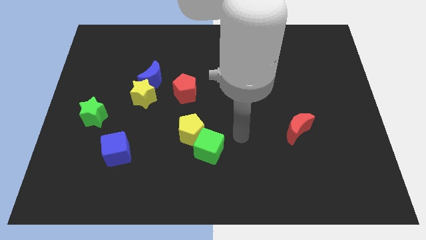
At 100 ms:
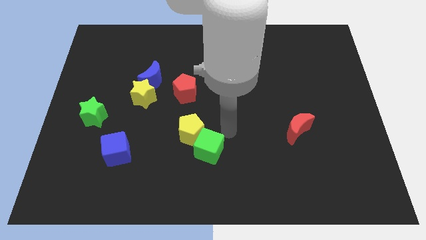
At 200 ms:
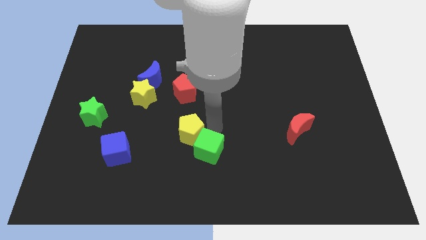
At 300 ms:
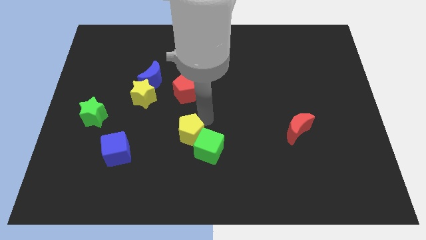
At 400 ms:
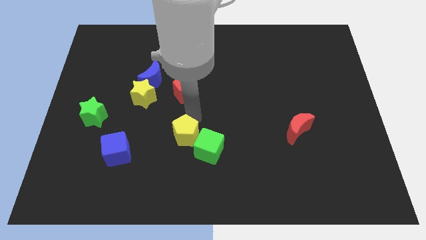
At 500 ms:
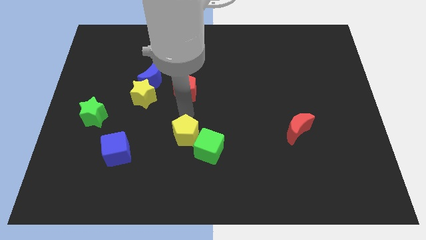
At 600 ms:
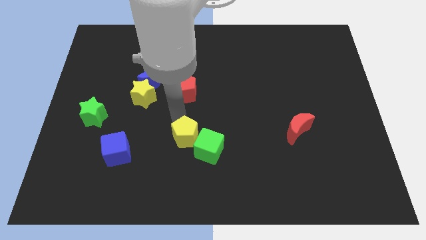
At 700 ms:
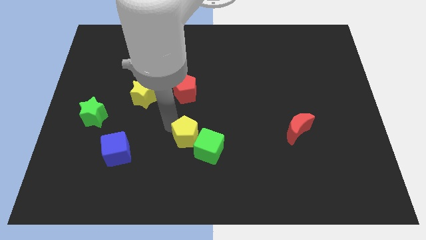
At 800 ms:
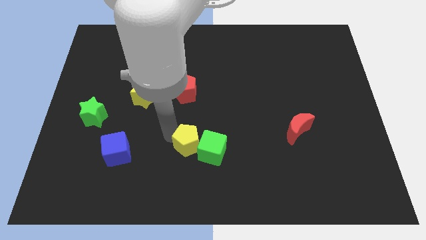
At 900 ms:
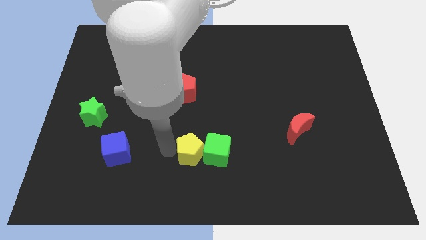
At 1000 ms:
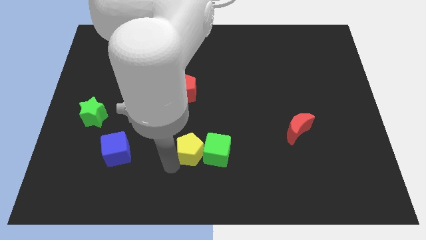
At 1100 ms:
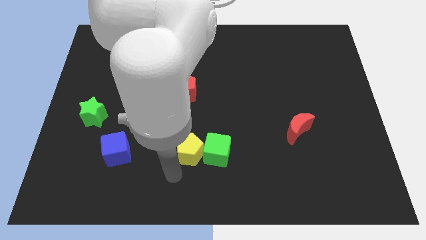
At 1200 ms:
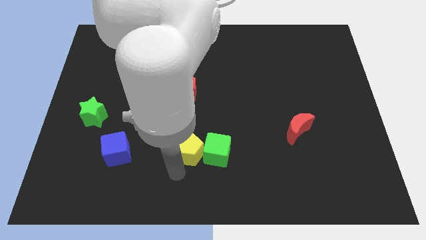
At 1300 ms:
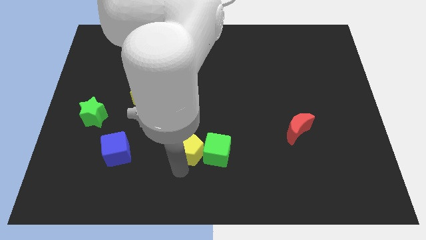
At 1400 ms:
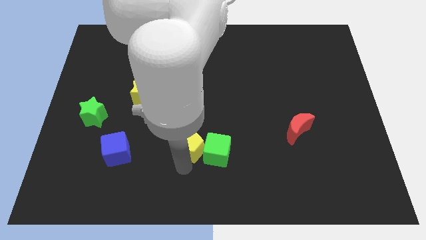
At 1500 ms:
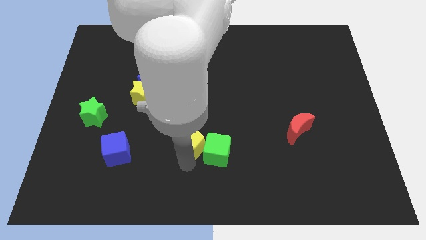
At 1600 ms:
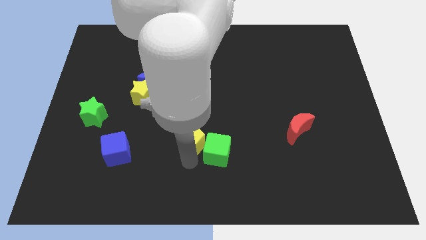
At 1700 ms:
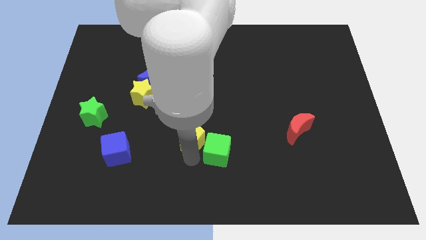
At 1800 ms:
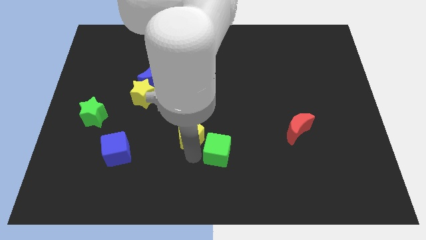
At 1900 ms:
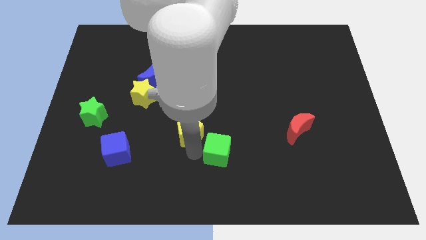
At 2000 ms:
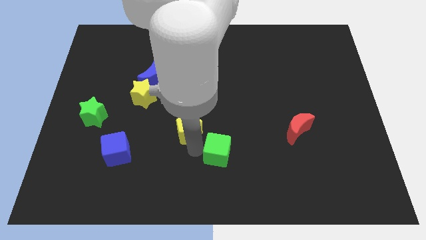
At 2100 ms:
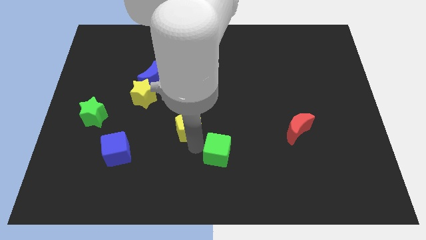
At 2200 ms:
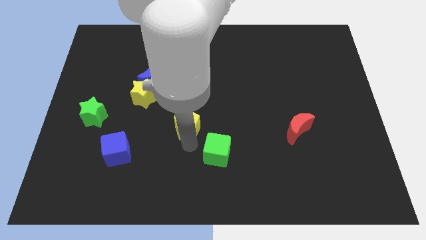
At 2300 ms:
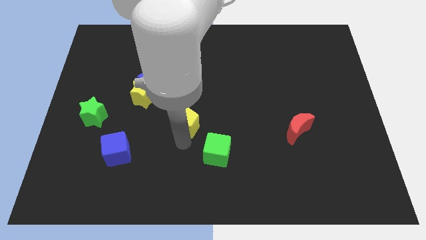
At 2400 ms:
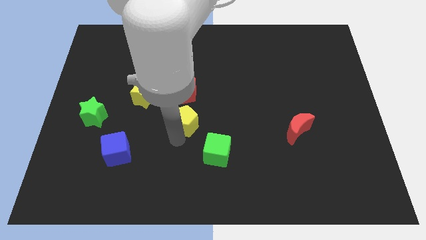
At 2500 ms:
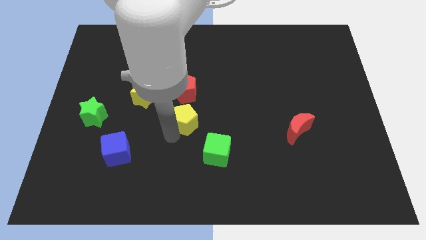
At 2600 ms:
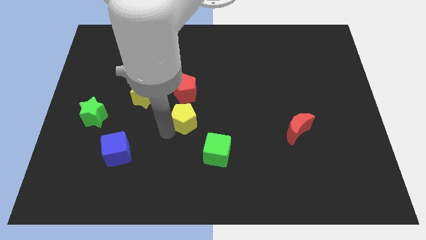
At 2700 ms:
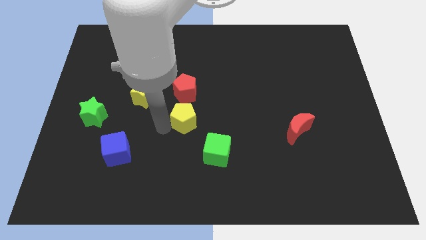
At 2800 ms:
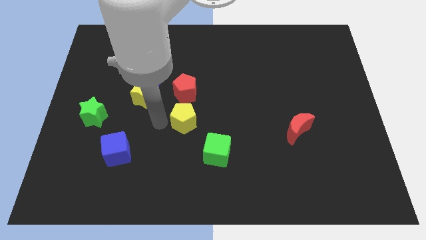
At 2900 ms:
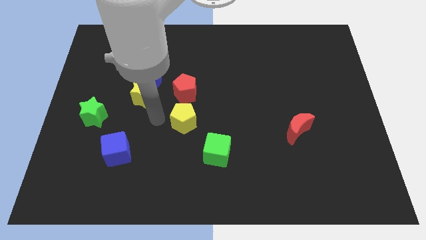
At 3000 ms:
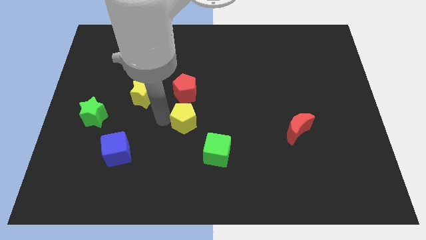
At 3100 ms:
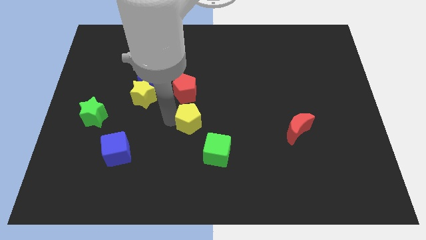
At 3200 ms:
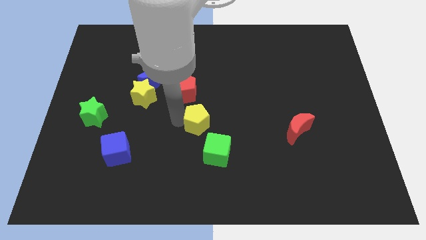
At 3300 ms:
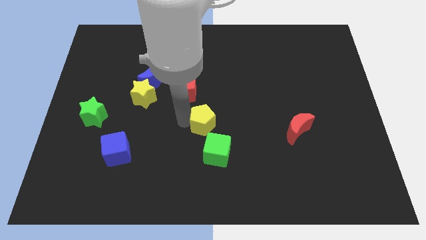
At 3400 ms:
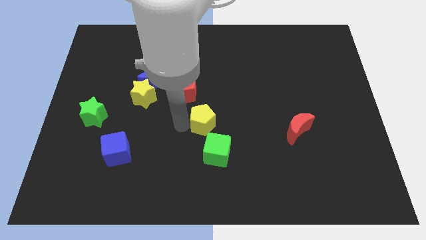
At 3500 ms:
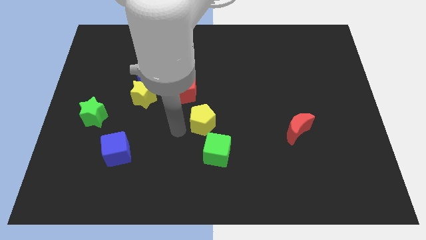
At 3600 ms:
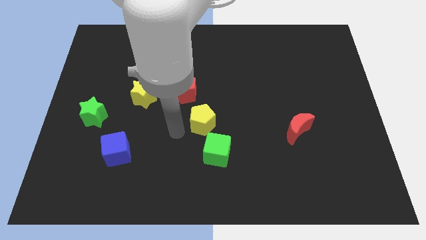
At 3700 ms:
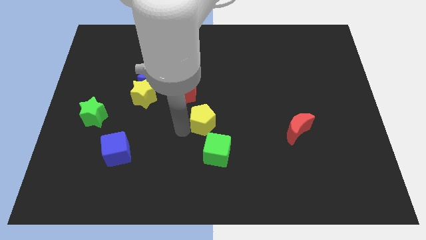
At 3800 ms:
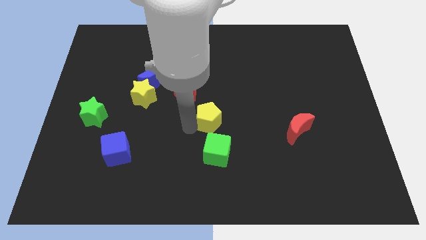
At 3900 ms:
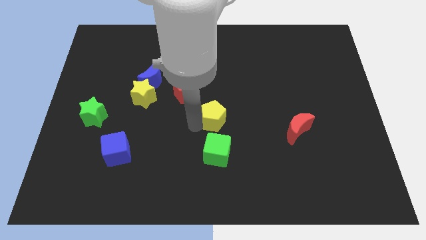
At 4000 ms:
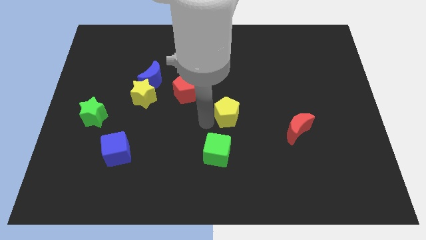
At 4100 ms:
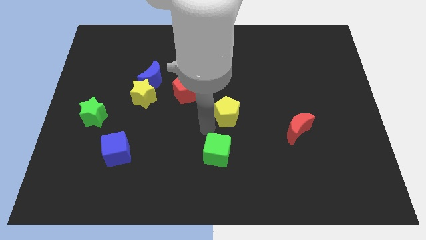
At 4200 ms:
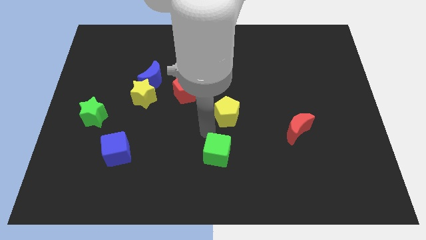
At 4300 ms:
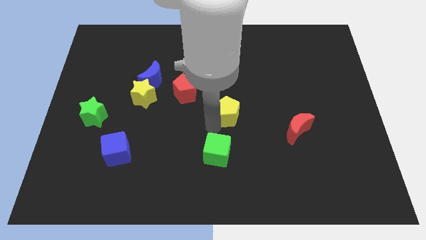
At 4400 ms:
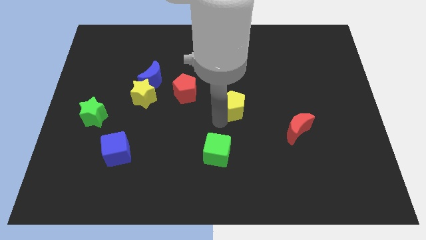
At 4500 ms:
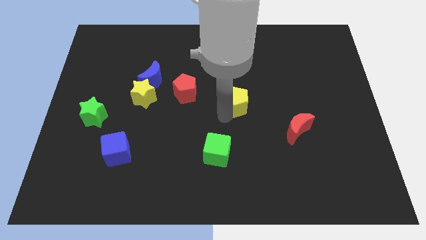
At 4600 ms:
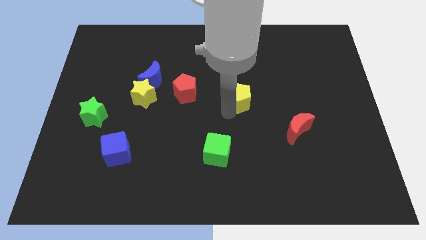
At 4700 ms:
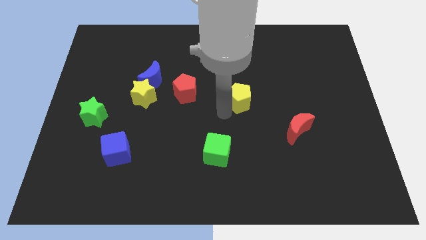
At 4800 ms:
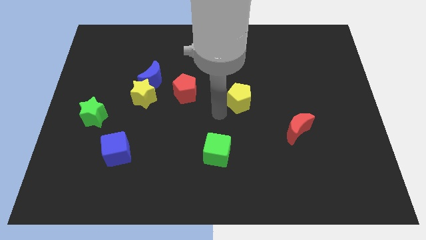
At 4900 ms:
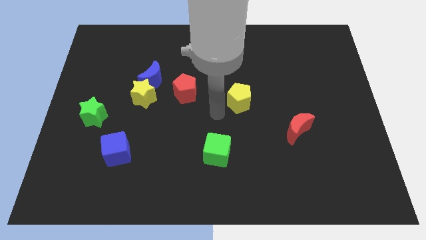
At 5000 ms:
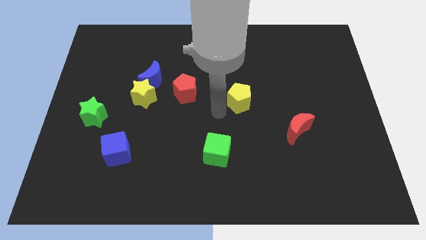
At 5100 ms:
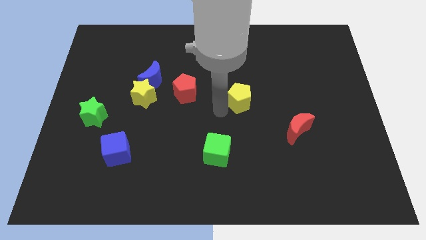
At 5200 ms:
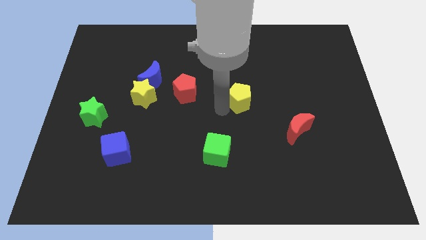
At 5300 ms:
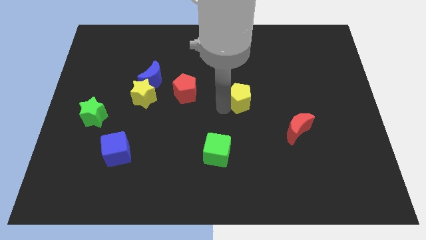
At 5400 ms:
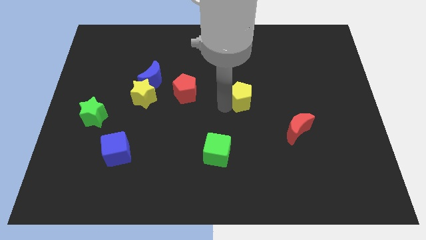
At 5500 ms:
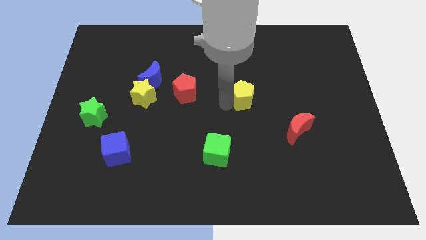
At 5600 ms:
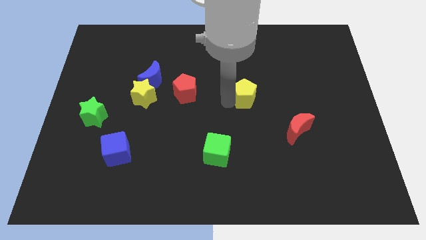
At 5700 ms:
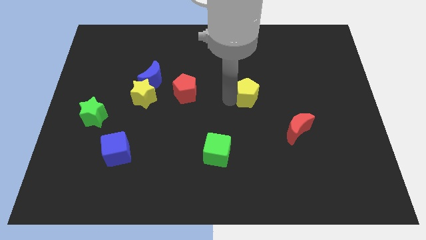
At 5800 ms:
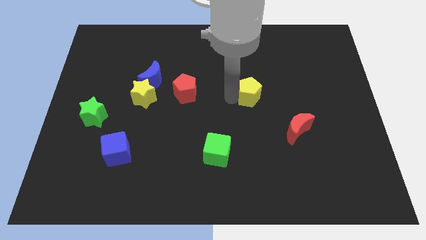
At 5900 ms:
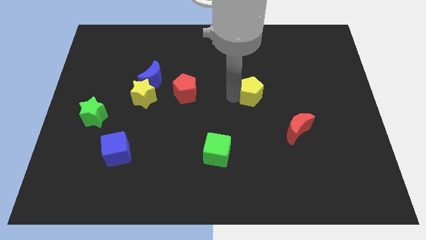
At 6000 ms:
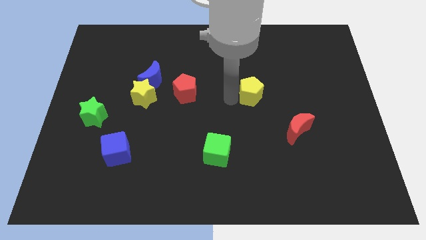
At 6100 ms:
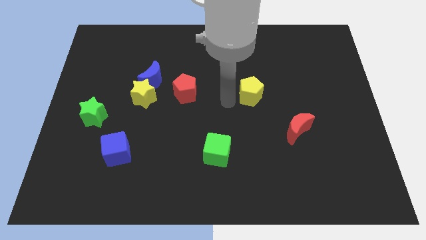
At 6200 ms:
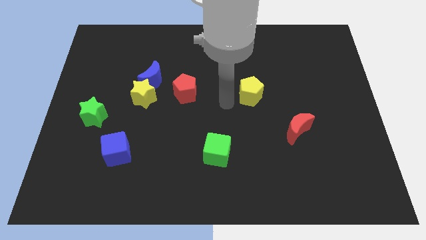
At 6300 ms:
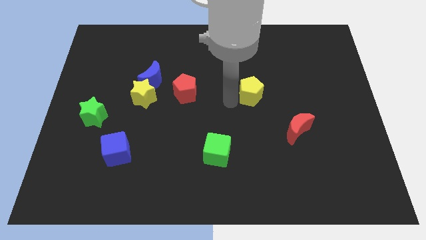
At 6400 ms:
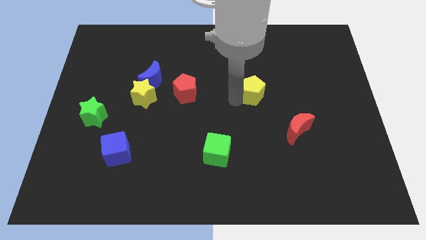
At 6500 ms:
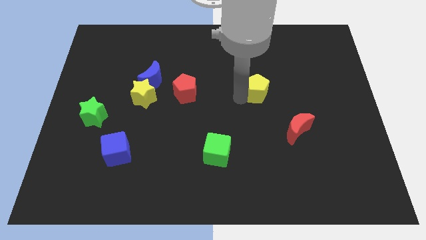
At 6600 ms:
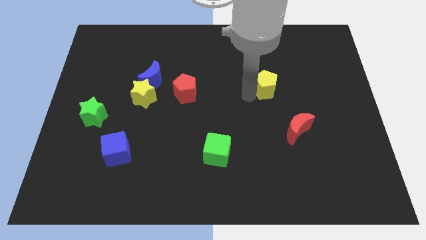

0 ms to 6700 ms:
push the yellow pentagon upwards and right

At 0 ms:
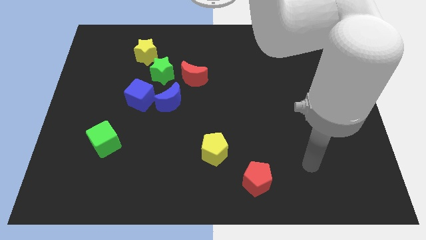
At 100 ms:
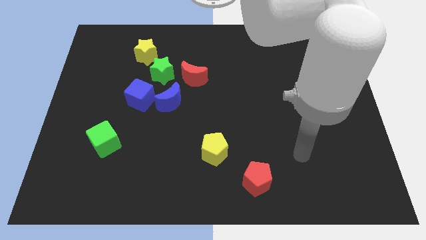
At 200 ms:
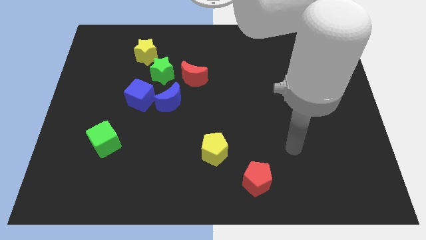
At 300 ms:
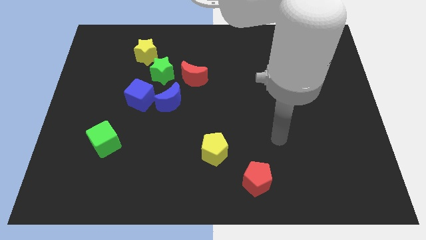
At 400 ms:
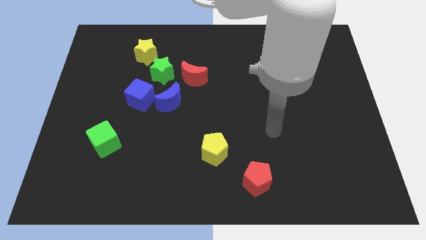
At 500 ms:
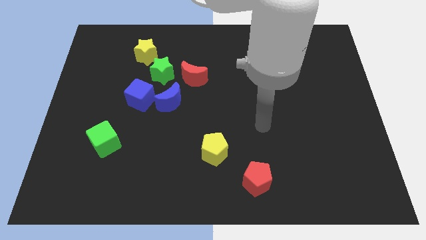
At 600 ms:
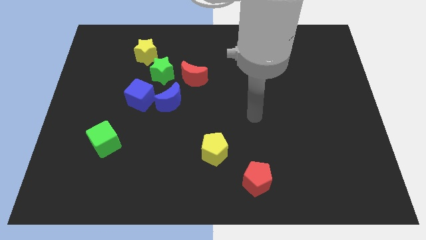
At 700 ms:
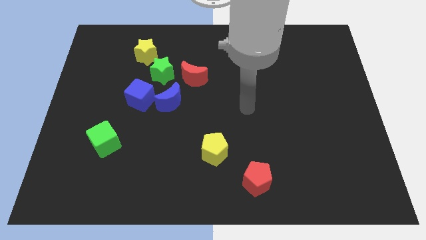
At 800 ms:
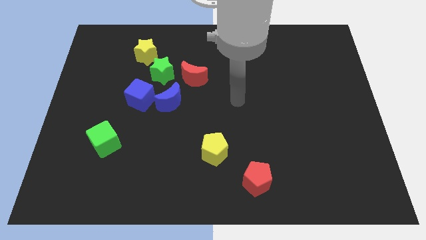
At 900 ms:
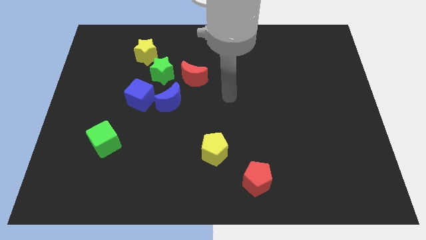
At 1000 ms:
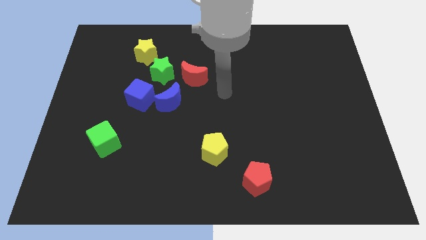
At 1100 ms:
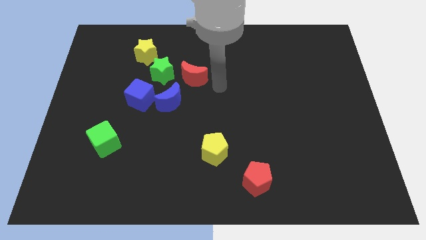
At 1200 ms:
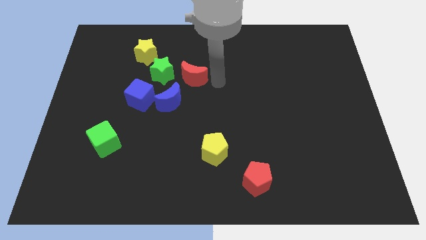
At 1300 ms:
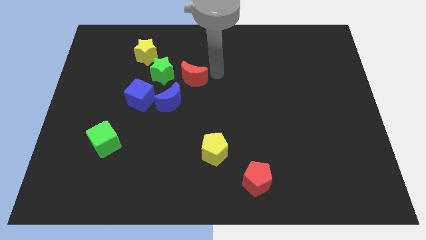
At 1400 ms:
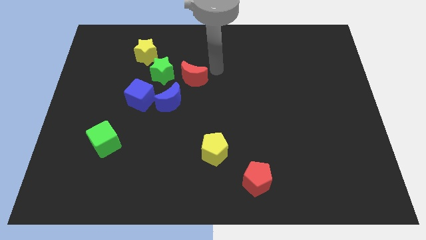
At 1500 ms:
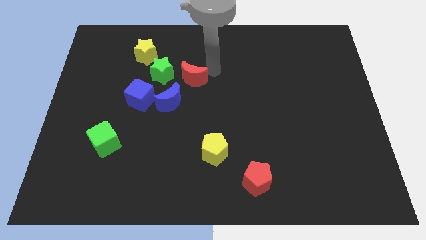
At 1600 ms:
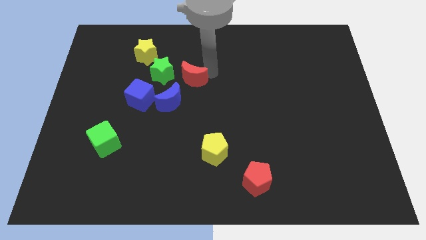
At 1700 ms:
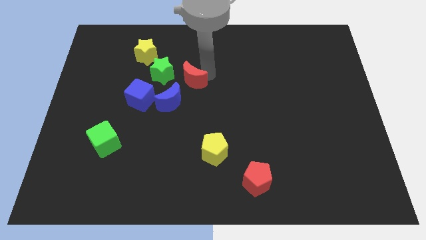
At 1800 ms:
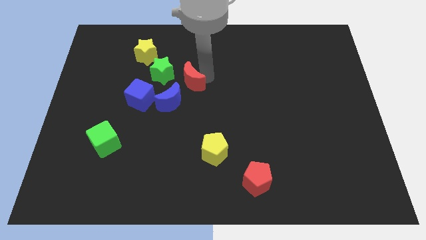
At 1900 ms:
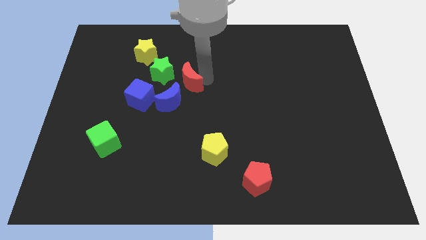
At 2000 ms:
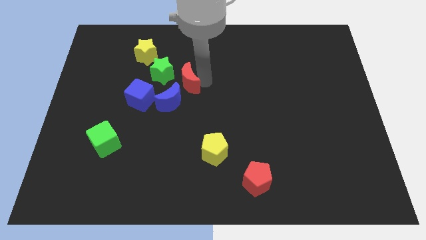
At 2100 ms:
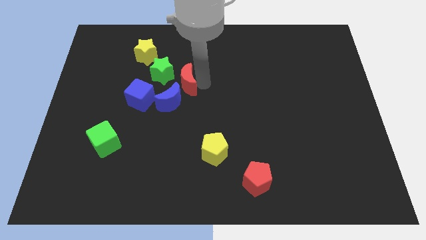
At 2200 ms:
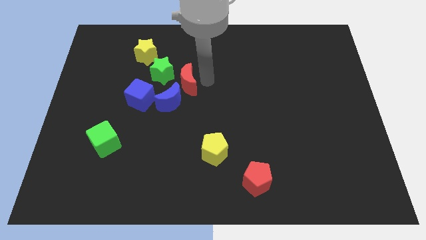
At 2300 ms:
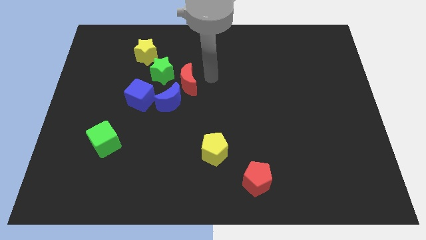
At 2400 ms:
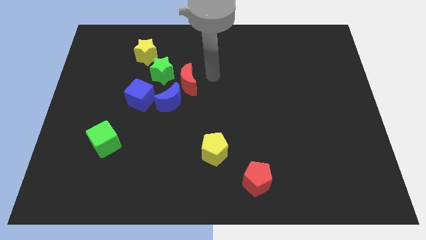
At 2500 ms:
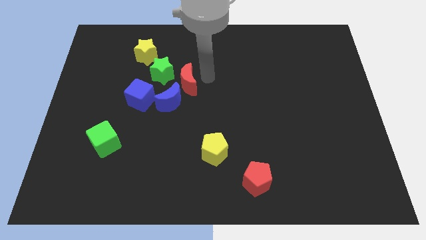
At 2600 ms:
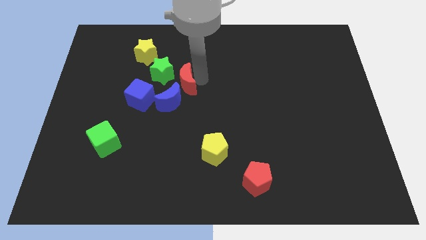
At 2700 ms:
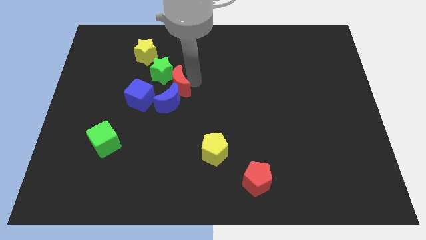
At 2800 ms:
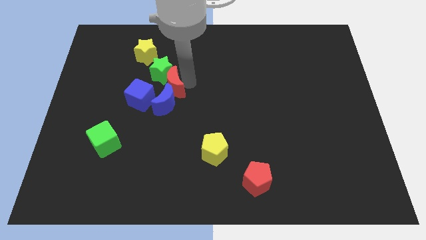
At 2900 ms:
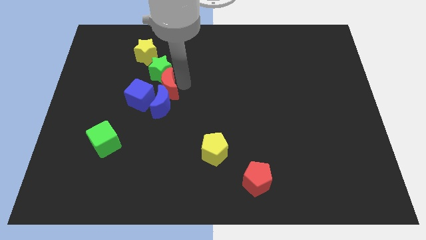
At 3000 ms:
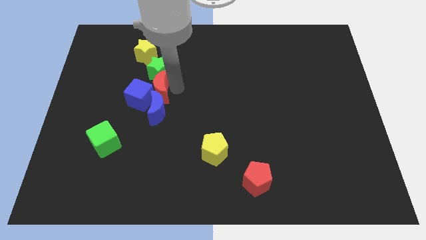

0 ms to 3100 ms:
slide the red moon slightly left
